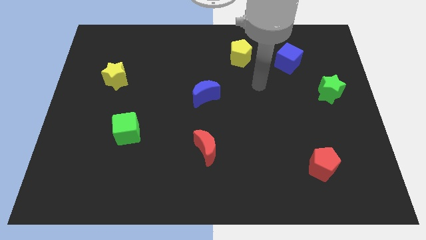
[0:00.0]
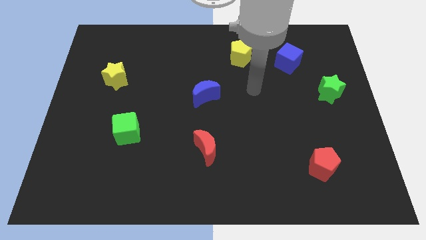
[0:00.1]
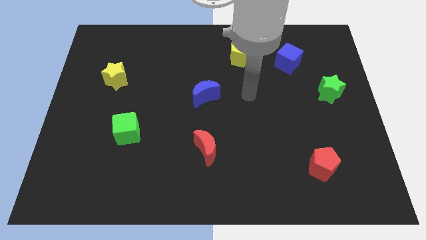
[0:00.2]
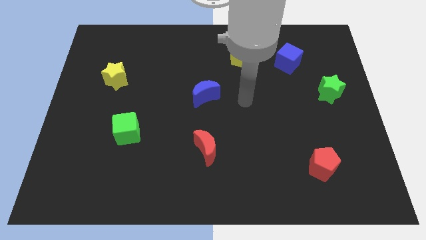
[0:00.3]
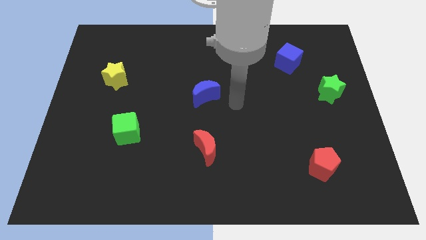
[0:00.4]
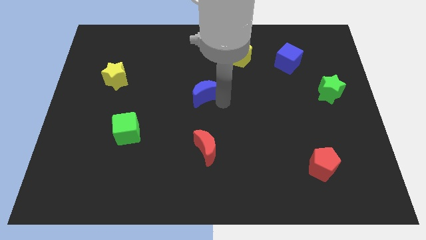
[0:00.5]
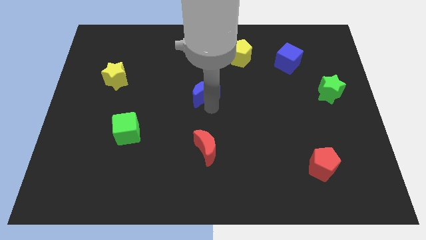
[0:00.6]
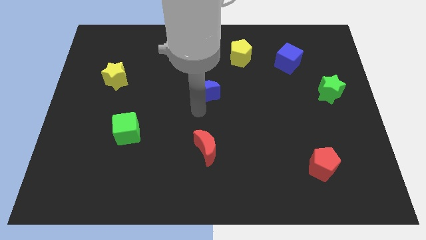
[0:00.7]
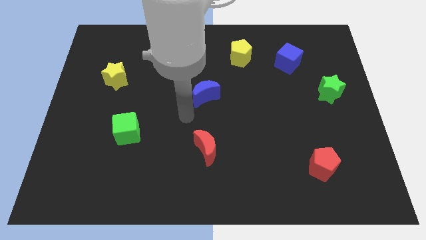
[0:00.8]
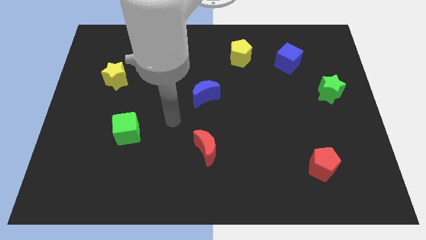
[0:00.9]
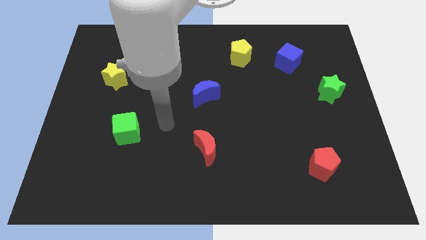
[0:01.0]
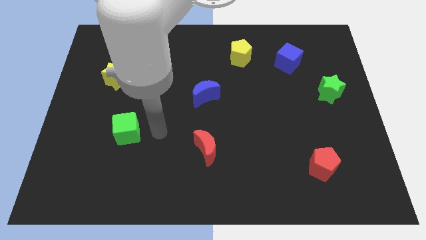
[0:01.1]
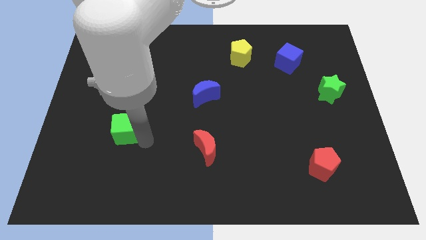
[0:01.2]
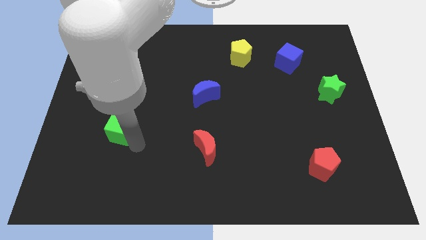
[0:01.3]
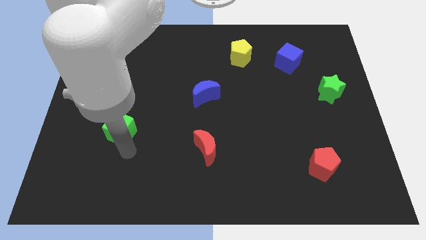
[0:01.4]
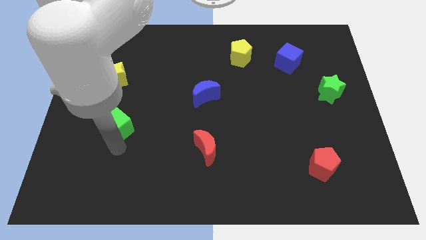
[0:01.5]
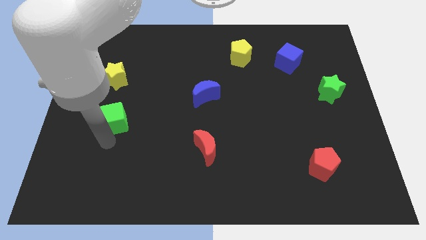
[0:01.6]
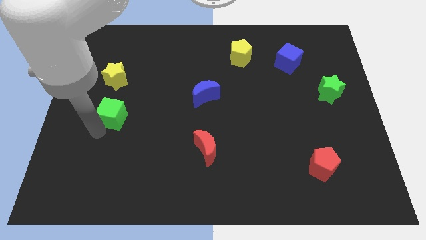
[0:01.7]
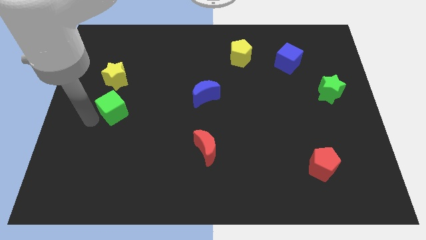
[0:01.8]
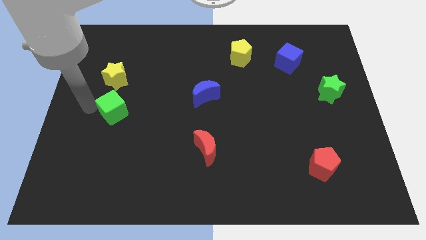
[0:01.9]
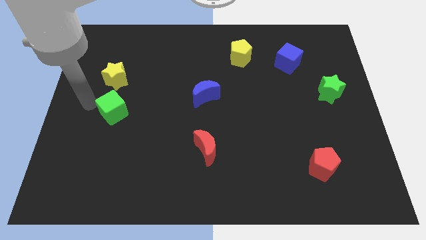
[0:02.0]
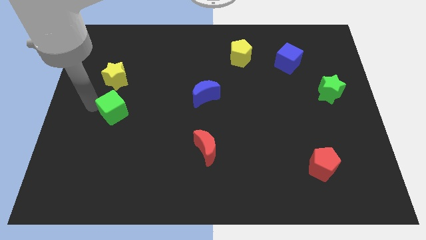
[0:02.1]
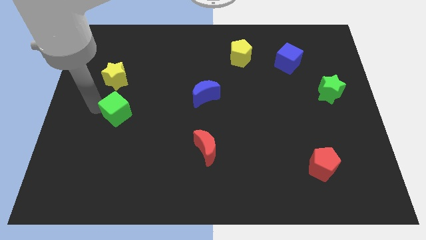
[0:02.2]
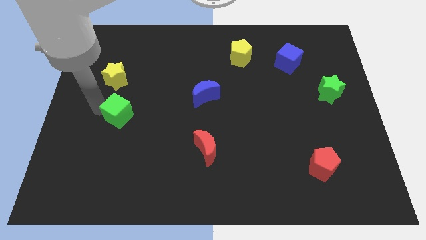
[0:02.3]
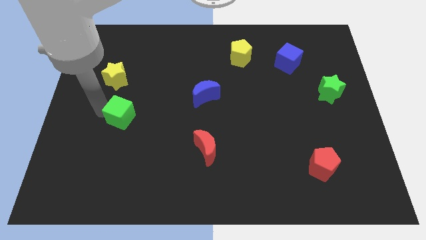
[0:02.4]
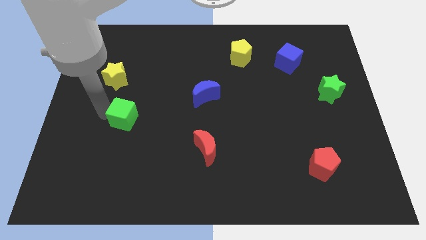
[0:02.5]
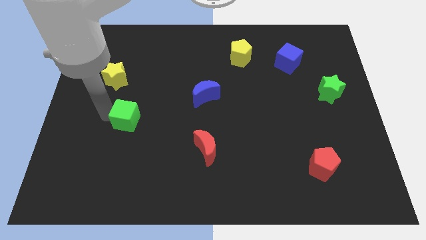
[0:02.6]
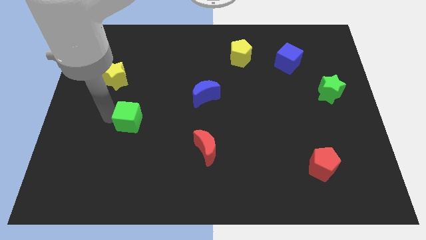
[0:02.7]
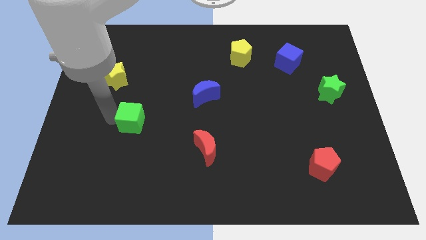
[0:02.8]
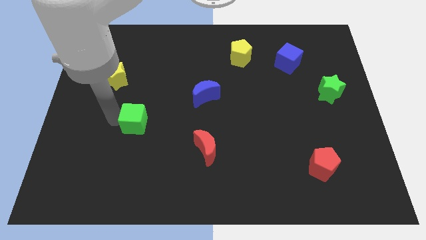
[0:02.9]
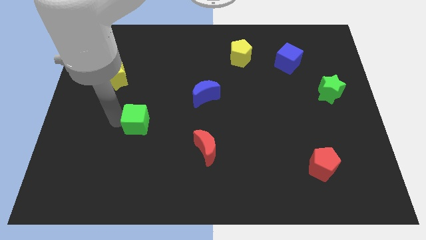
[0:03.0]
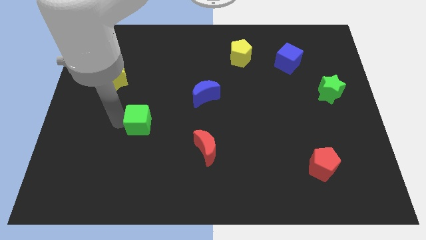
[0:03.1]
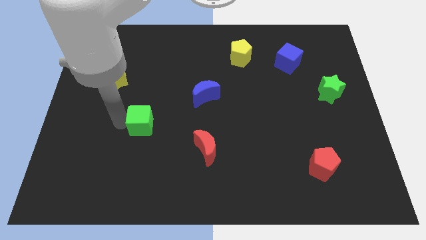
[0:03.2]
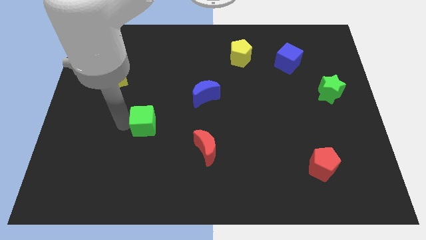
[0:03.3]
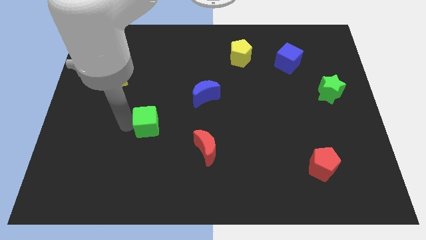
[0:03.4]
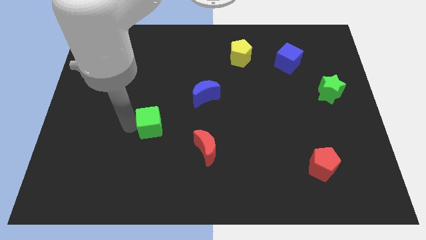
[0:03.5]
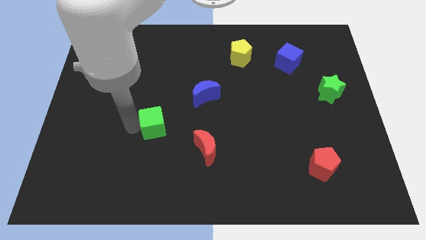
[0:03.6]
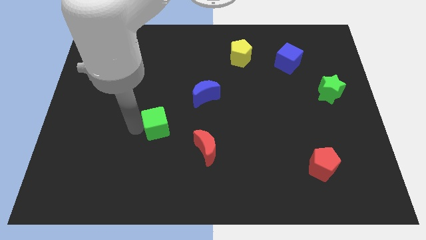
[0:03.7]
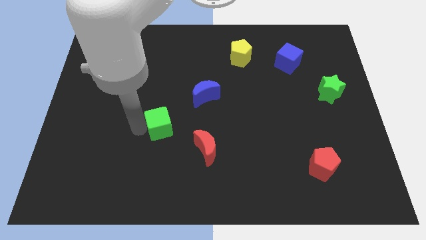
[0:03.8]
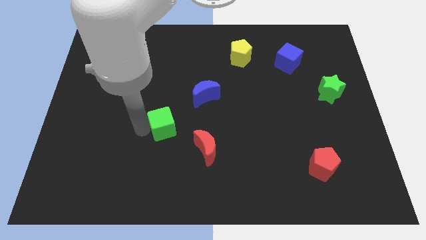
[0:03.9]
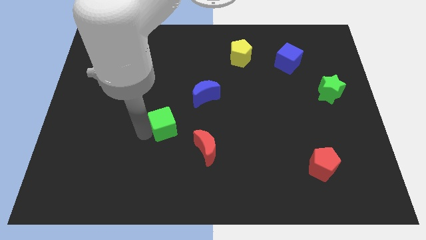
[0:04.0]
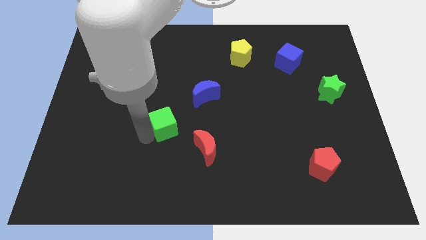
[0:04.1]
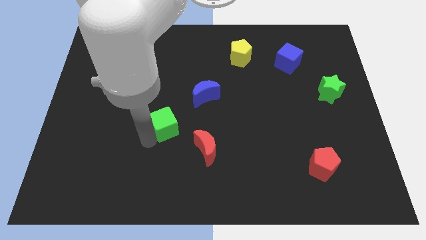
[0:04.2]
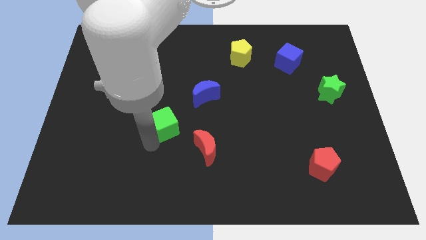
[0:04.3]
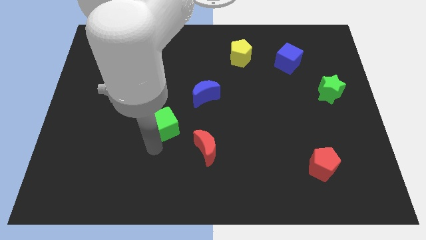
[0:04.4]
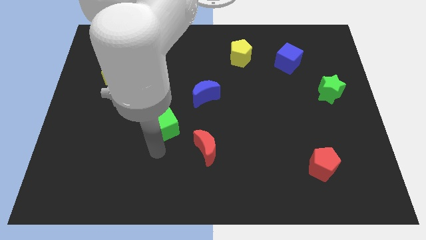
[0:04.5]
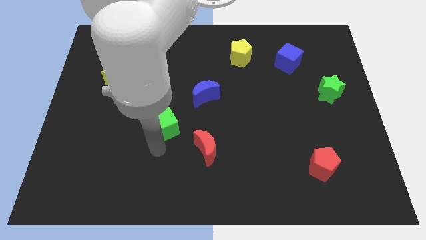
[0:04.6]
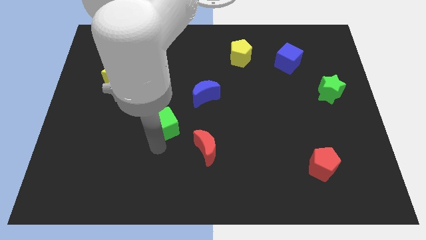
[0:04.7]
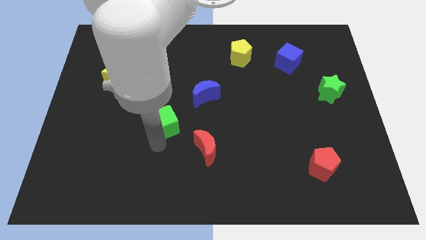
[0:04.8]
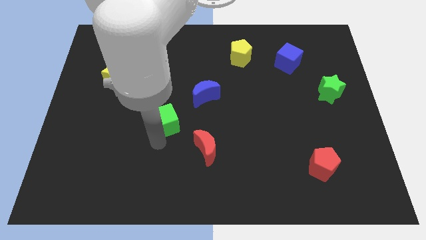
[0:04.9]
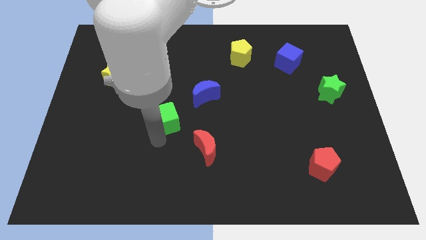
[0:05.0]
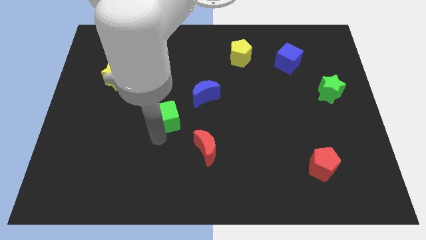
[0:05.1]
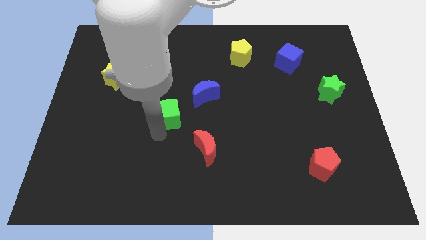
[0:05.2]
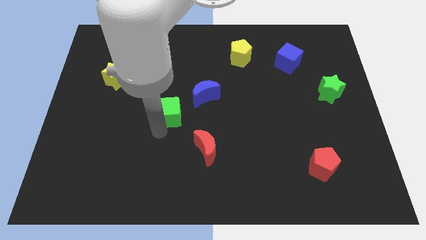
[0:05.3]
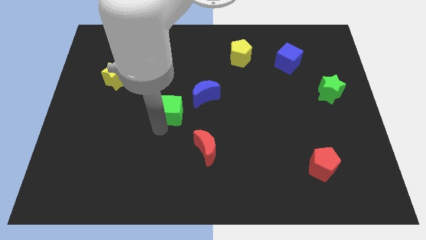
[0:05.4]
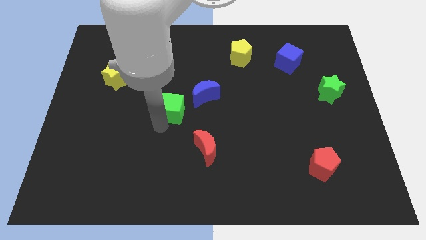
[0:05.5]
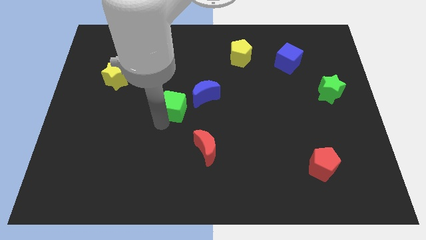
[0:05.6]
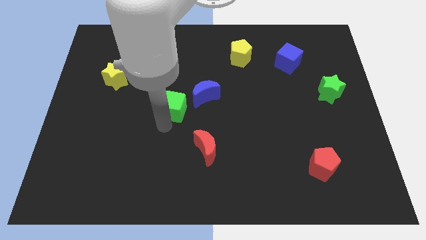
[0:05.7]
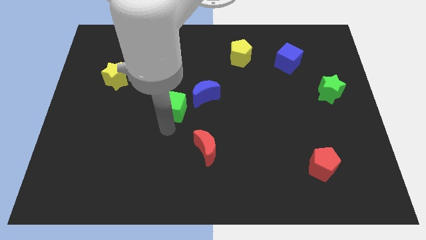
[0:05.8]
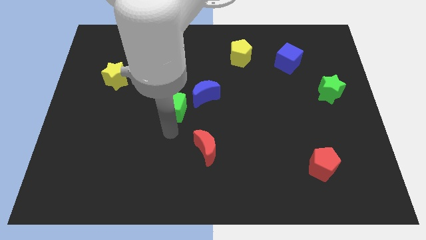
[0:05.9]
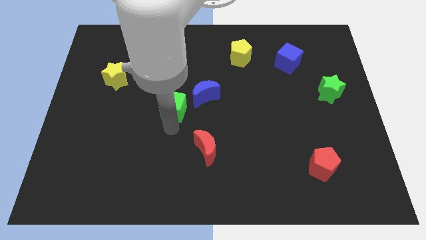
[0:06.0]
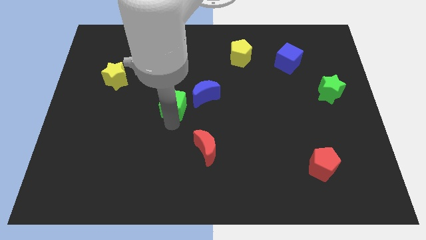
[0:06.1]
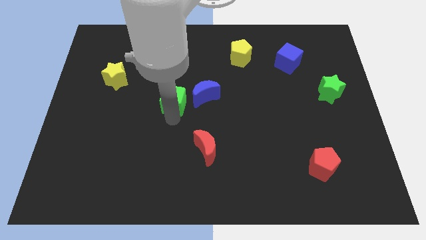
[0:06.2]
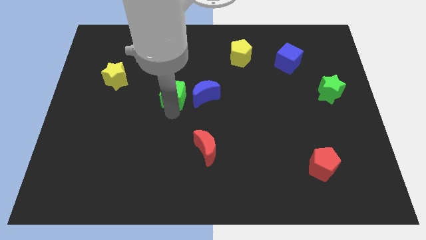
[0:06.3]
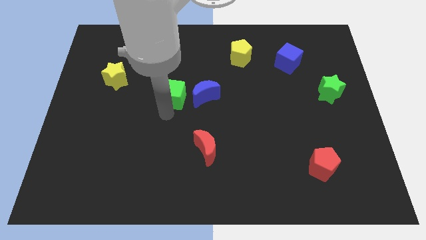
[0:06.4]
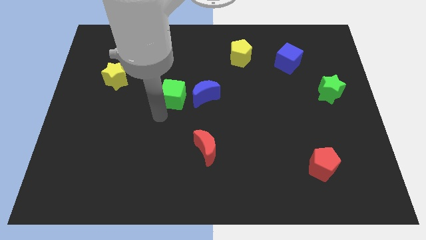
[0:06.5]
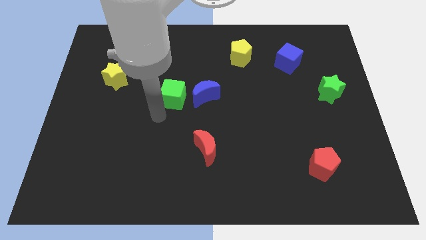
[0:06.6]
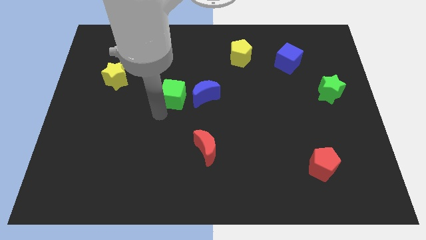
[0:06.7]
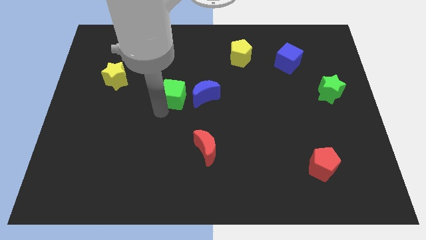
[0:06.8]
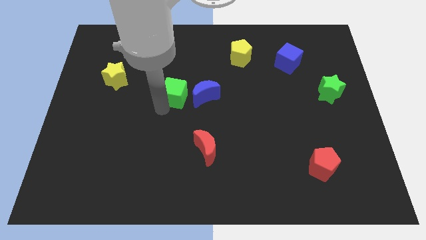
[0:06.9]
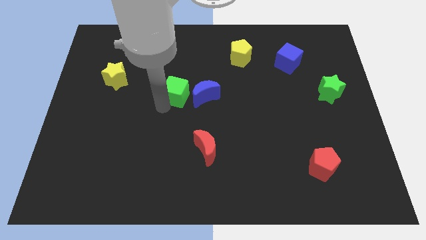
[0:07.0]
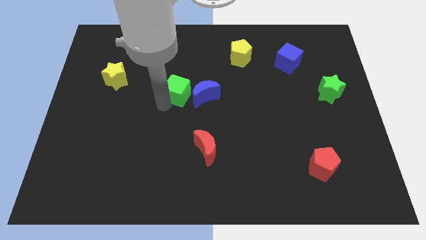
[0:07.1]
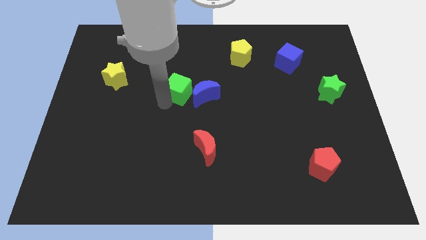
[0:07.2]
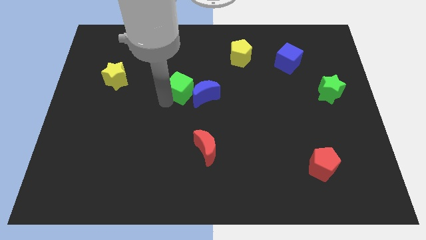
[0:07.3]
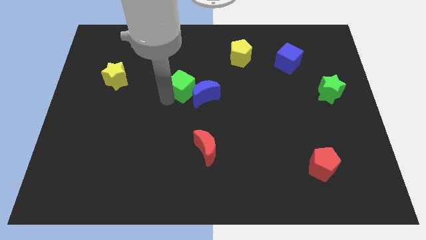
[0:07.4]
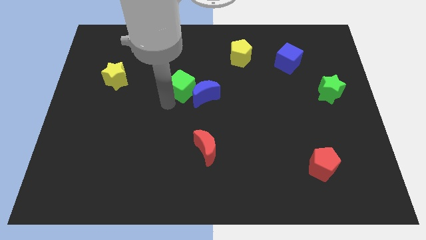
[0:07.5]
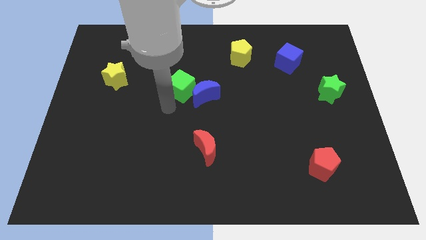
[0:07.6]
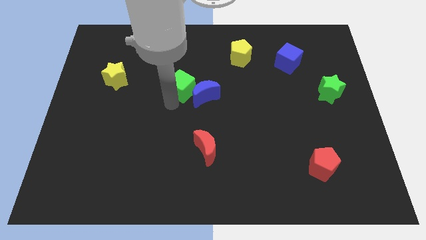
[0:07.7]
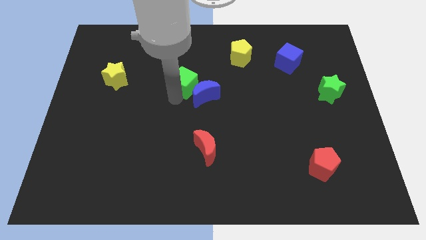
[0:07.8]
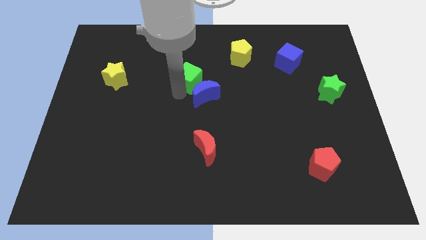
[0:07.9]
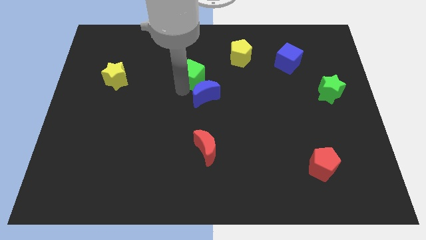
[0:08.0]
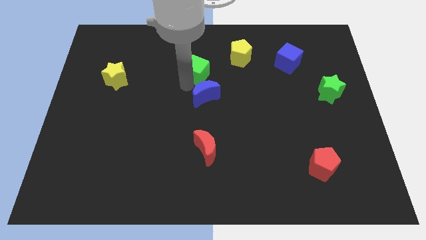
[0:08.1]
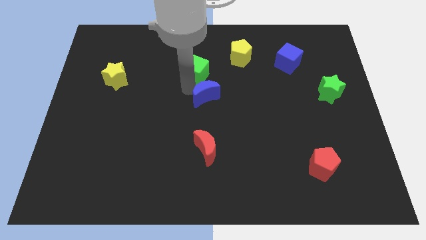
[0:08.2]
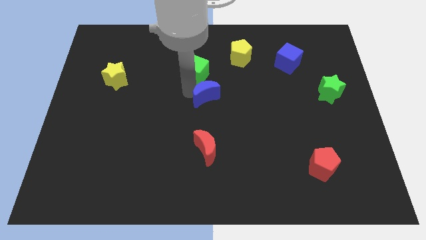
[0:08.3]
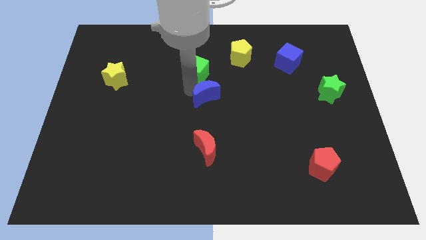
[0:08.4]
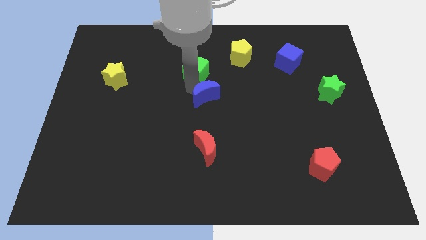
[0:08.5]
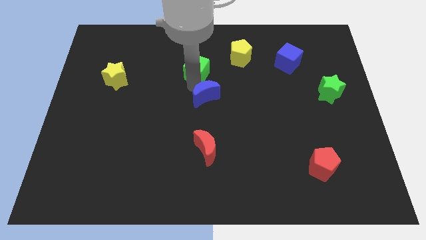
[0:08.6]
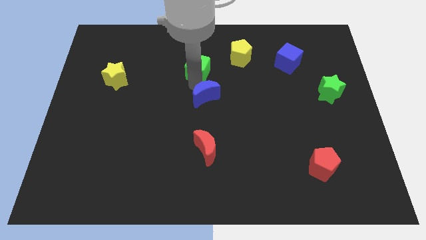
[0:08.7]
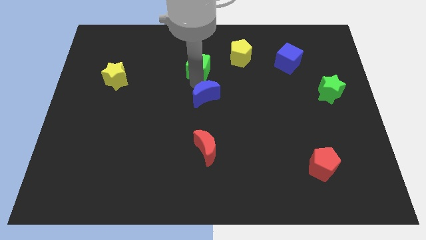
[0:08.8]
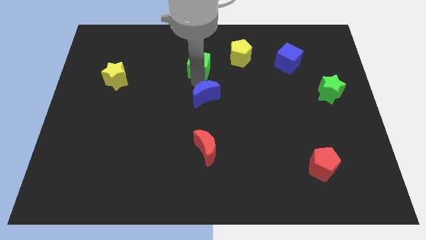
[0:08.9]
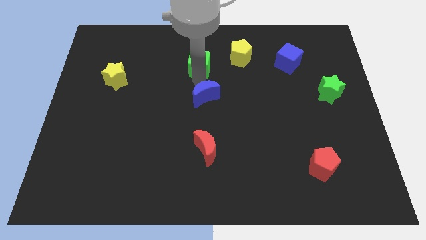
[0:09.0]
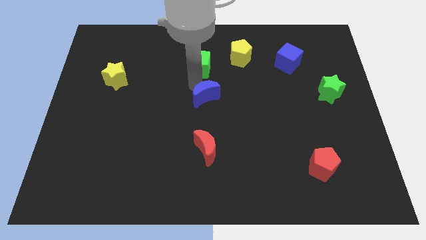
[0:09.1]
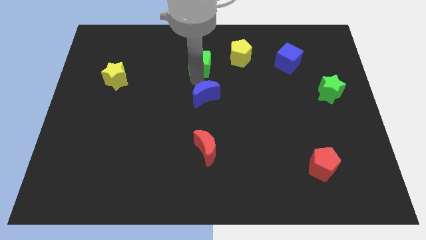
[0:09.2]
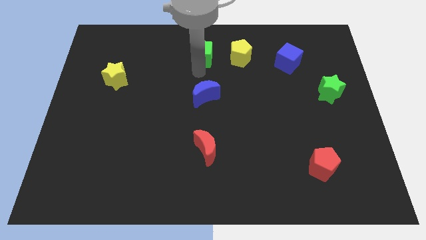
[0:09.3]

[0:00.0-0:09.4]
push the green cube to the top
